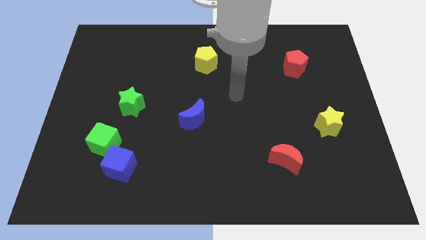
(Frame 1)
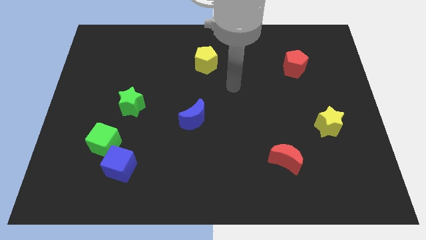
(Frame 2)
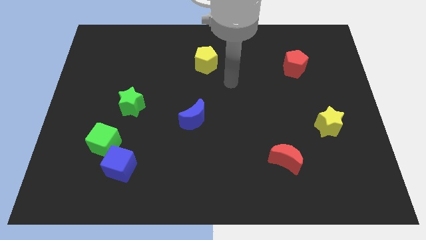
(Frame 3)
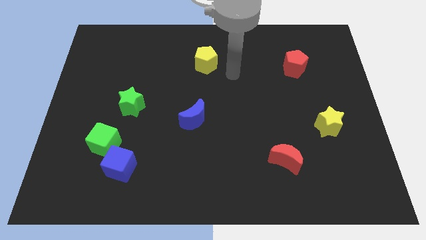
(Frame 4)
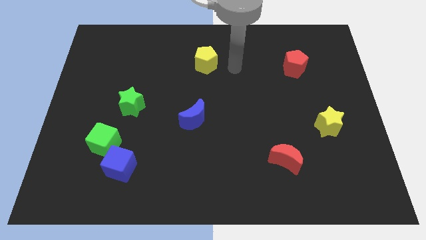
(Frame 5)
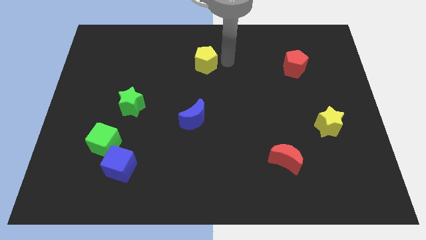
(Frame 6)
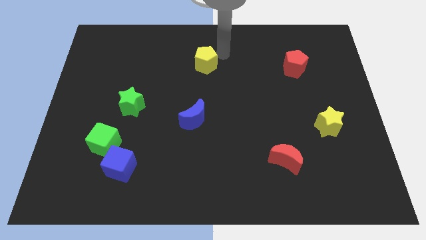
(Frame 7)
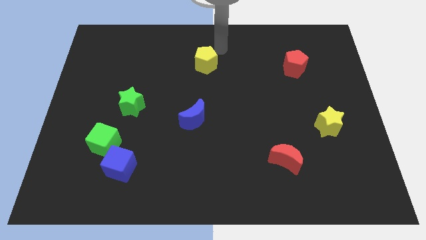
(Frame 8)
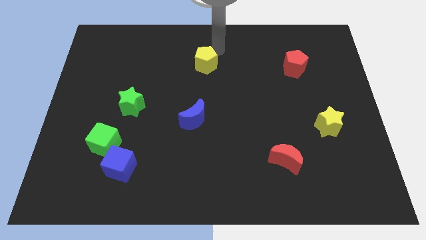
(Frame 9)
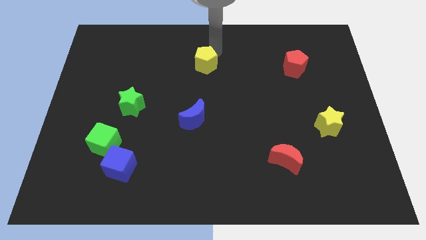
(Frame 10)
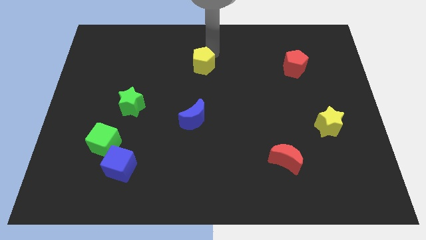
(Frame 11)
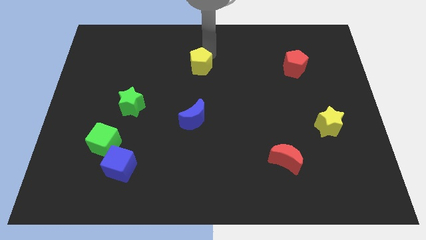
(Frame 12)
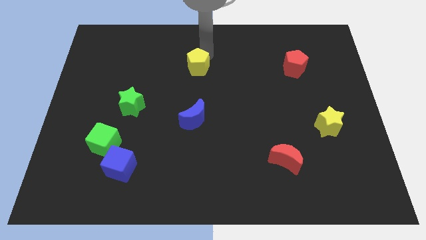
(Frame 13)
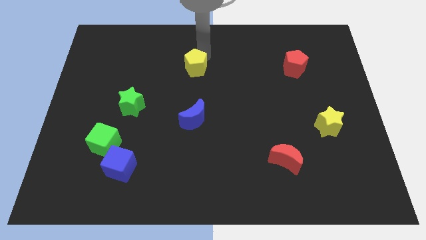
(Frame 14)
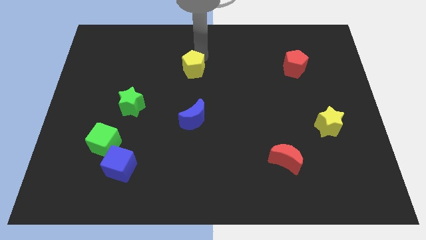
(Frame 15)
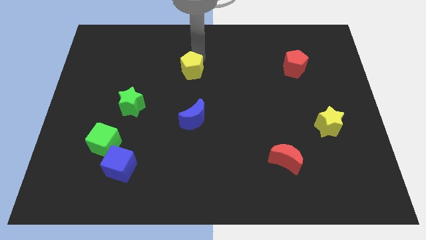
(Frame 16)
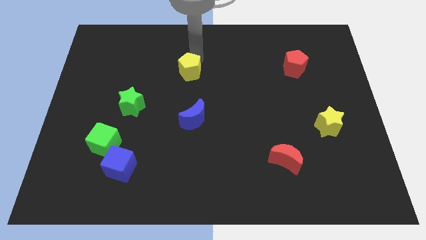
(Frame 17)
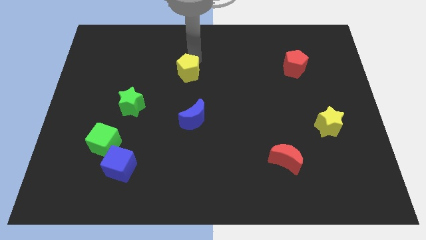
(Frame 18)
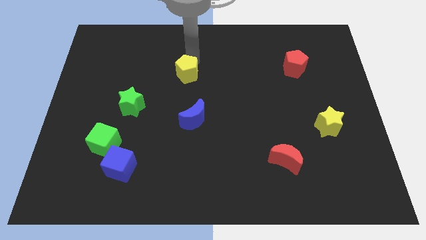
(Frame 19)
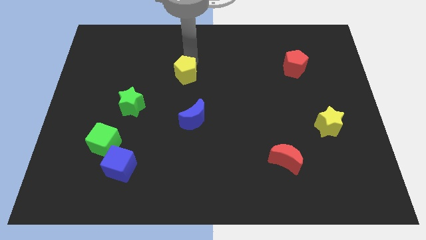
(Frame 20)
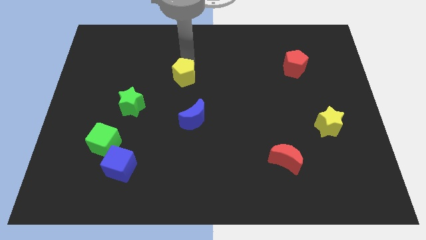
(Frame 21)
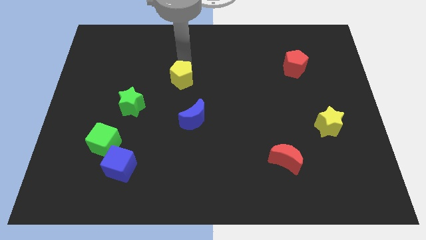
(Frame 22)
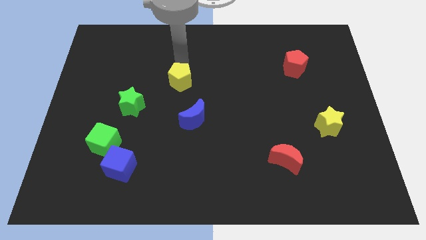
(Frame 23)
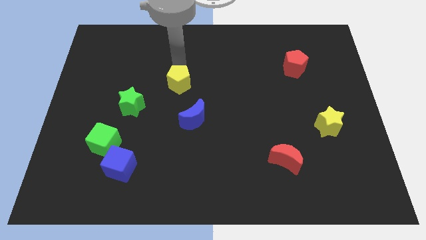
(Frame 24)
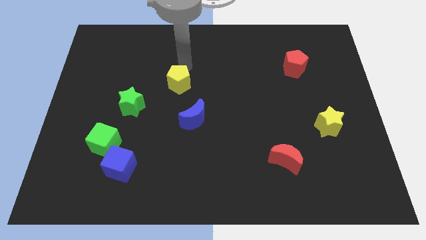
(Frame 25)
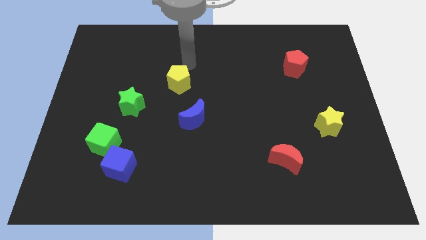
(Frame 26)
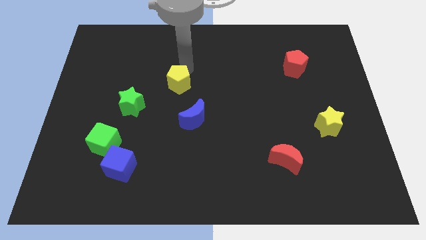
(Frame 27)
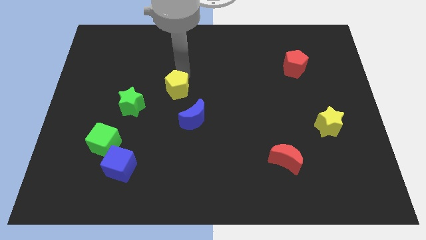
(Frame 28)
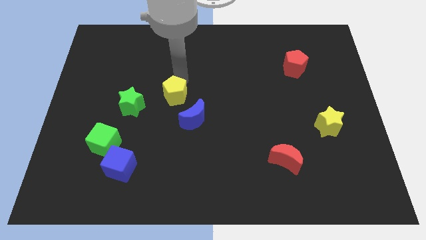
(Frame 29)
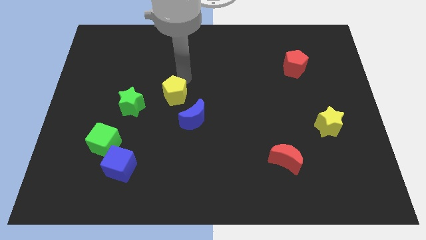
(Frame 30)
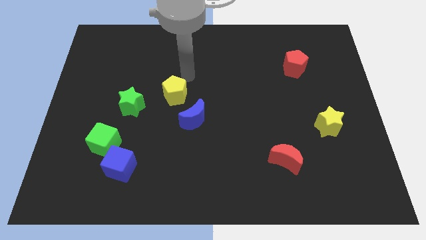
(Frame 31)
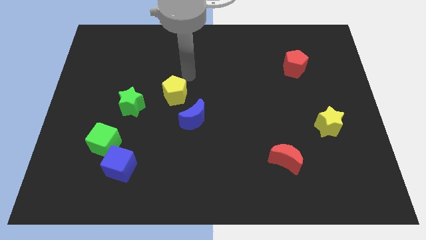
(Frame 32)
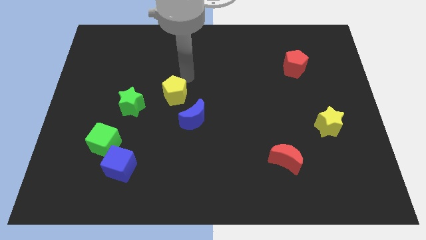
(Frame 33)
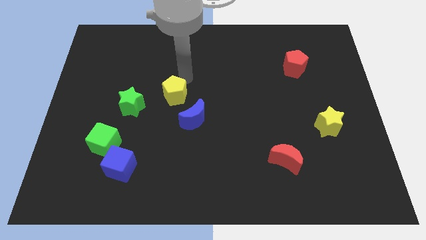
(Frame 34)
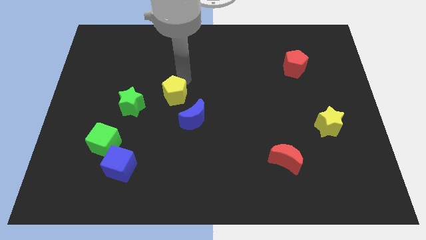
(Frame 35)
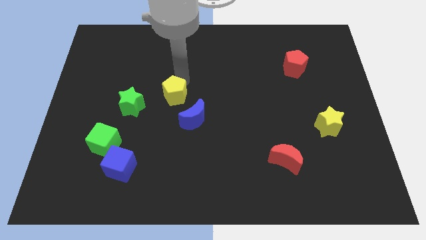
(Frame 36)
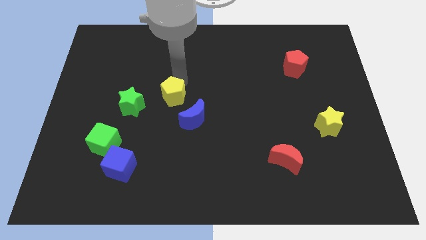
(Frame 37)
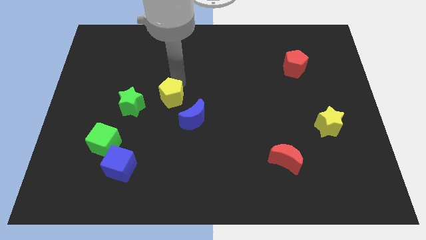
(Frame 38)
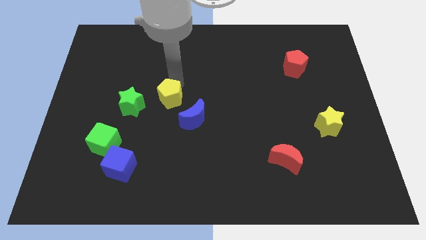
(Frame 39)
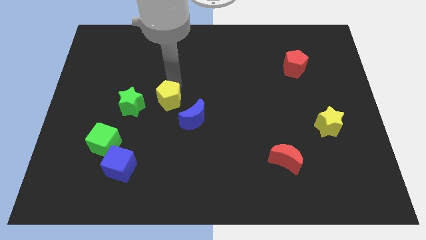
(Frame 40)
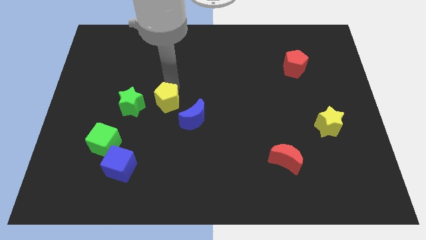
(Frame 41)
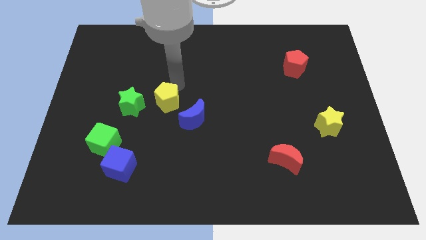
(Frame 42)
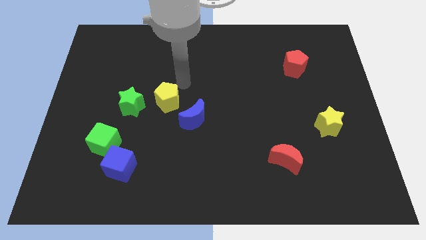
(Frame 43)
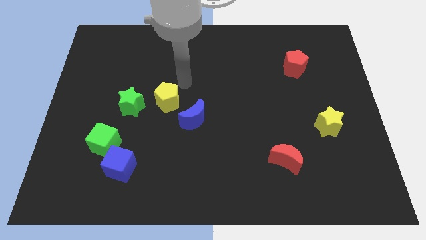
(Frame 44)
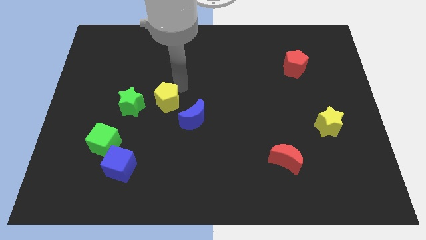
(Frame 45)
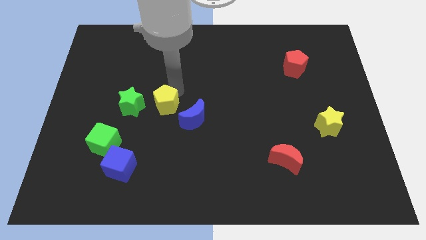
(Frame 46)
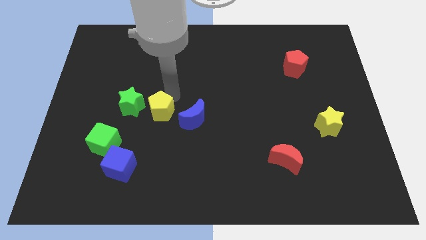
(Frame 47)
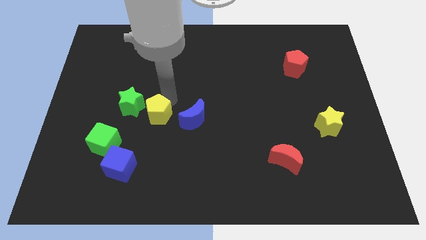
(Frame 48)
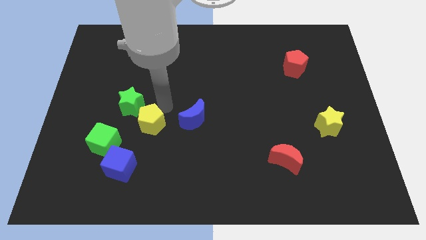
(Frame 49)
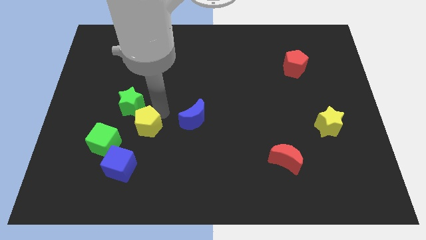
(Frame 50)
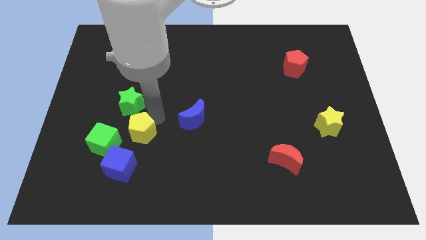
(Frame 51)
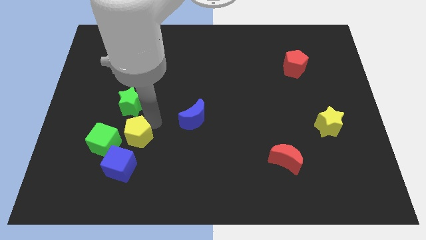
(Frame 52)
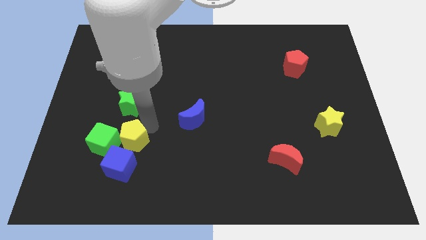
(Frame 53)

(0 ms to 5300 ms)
move the yellow pentagon towards the green cube

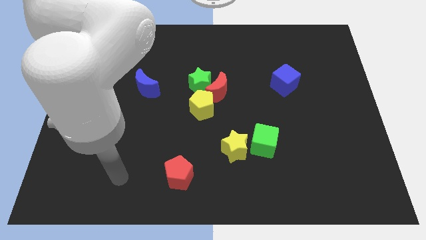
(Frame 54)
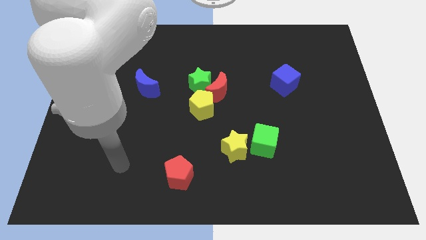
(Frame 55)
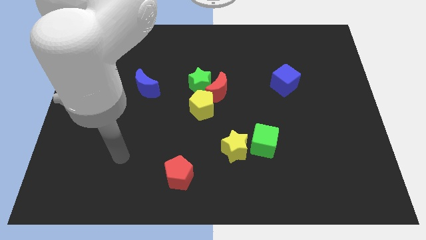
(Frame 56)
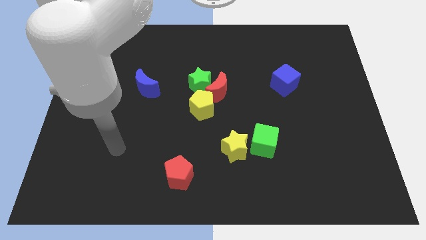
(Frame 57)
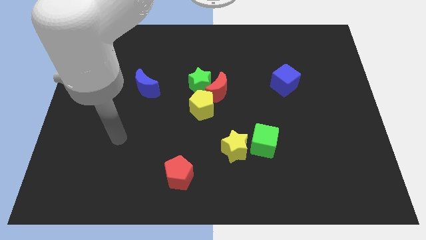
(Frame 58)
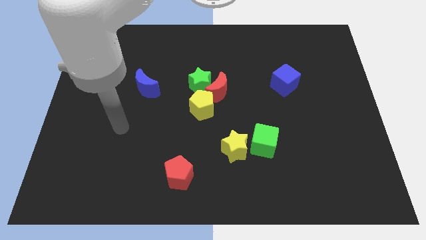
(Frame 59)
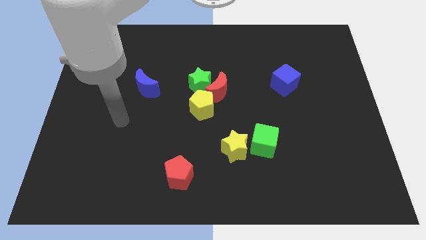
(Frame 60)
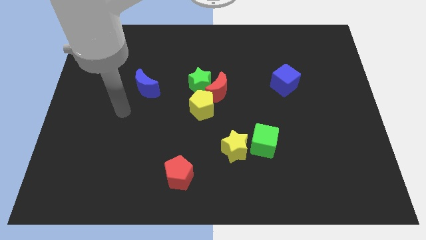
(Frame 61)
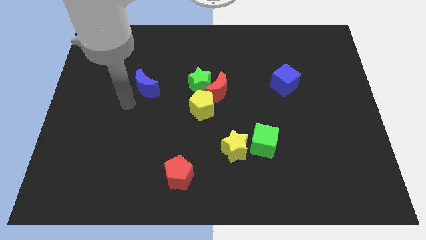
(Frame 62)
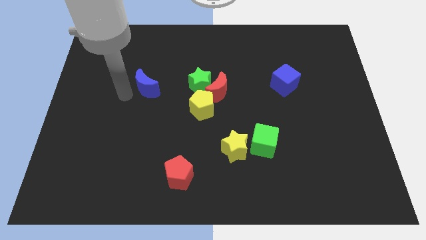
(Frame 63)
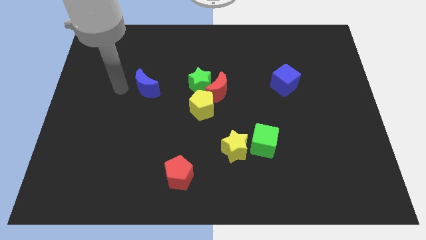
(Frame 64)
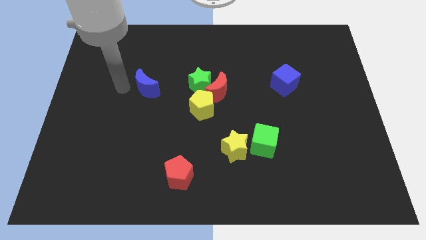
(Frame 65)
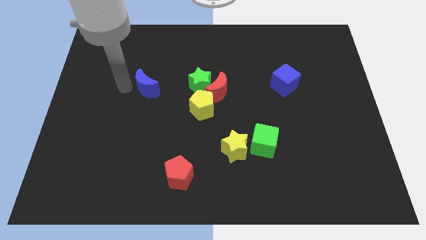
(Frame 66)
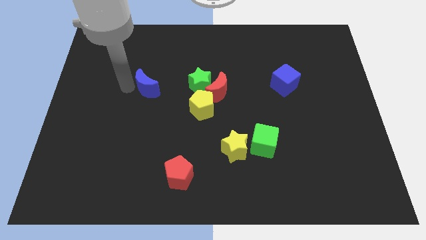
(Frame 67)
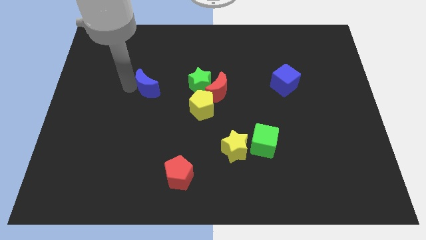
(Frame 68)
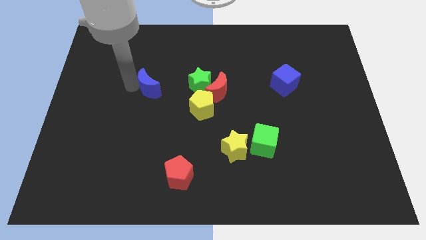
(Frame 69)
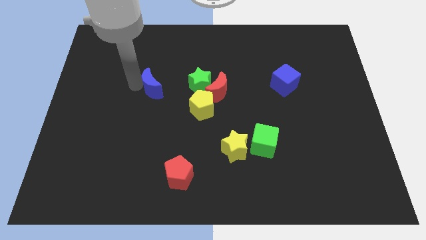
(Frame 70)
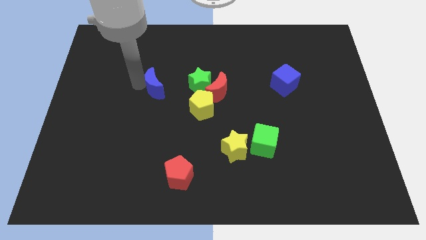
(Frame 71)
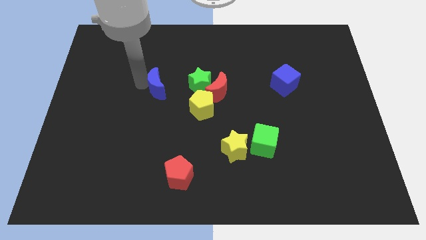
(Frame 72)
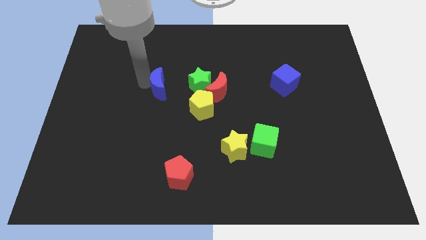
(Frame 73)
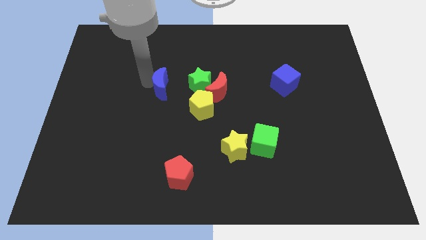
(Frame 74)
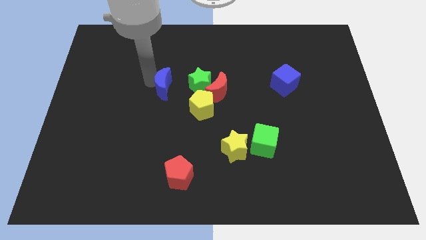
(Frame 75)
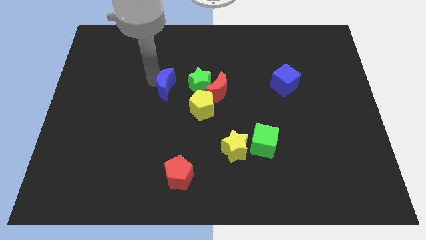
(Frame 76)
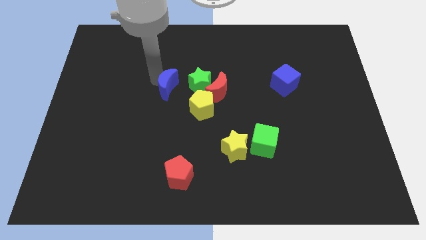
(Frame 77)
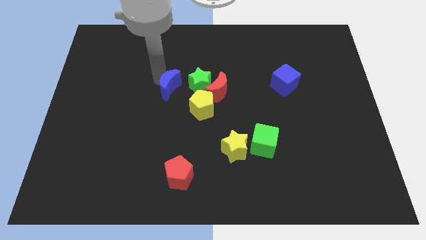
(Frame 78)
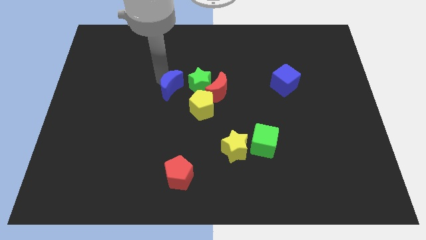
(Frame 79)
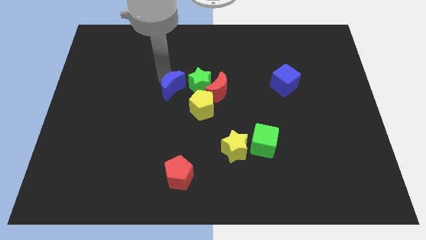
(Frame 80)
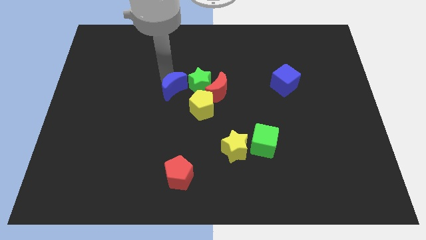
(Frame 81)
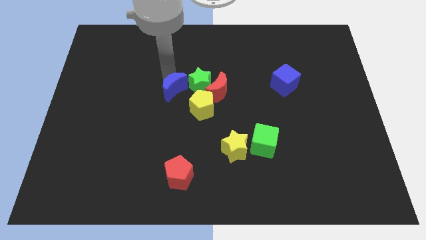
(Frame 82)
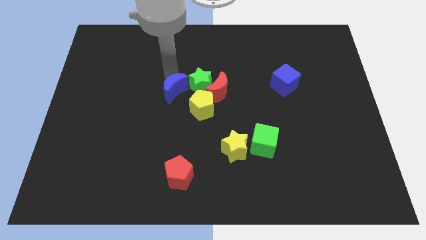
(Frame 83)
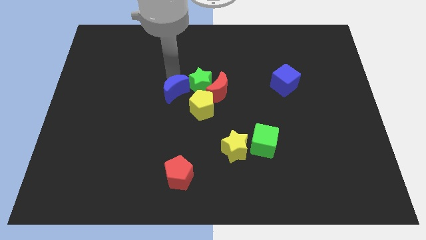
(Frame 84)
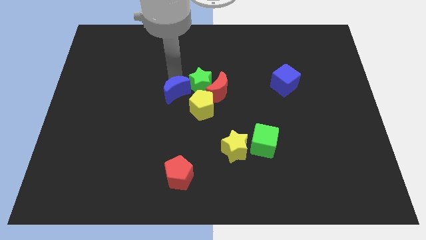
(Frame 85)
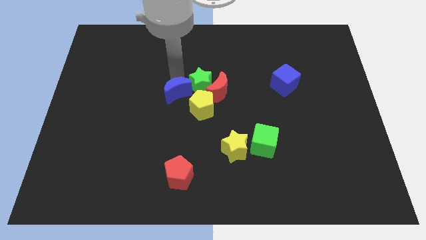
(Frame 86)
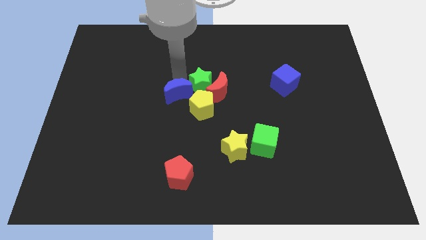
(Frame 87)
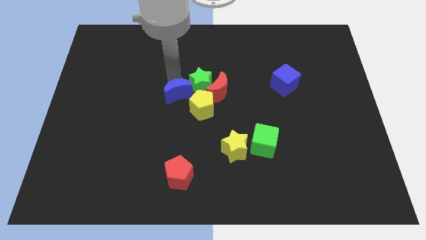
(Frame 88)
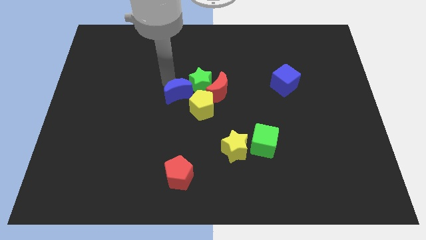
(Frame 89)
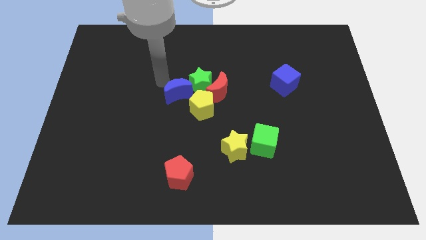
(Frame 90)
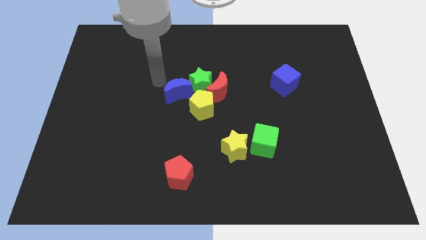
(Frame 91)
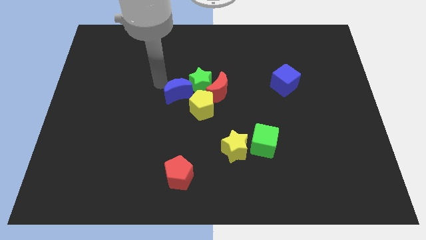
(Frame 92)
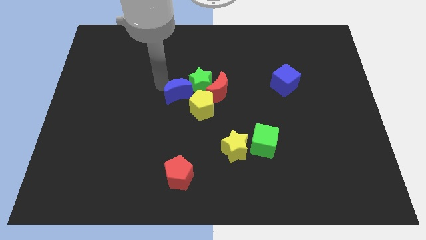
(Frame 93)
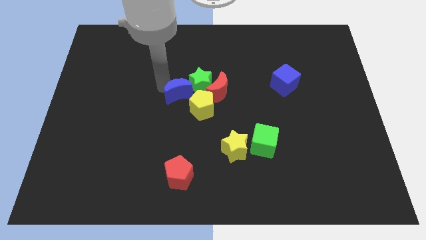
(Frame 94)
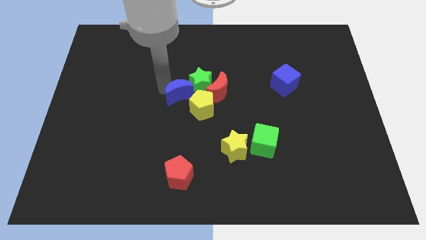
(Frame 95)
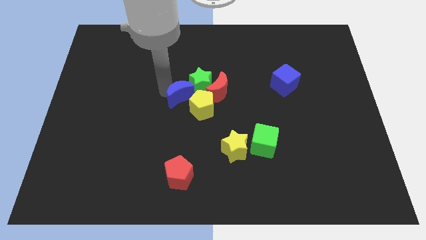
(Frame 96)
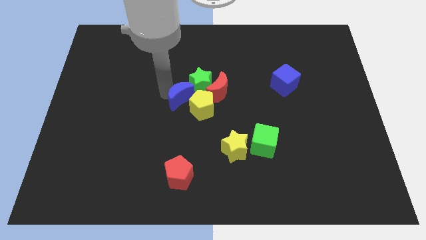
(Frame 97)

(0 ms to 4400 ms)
push the blue moon next to the yellow pentagon
